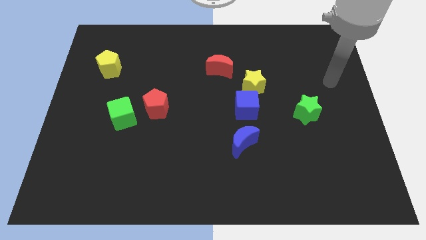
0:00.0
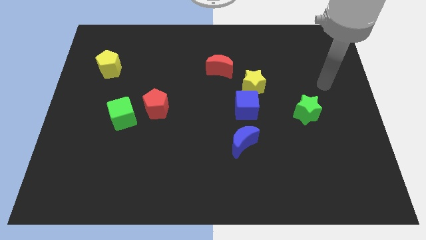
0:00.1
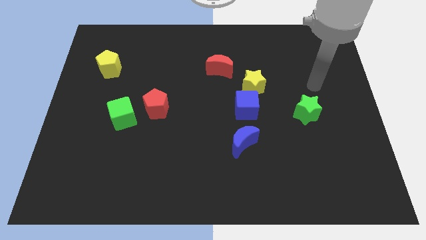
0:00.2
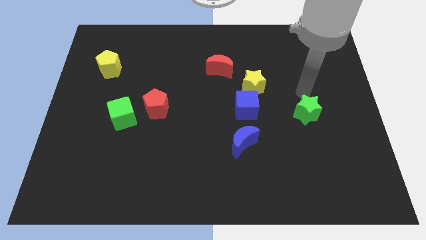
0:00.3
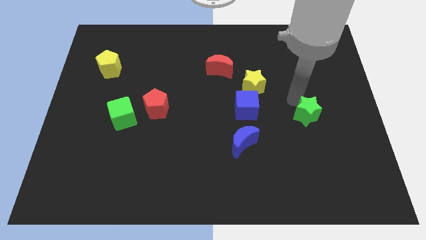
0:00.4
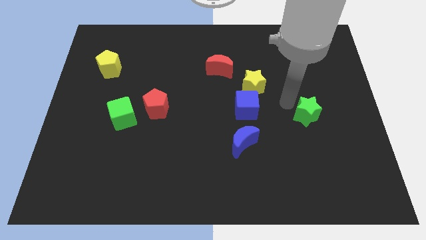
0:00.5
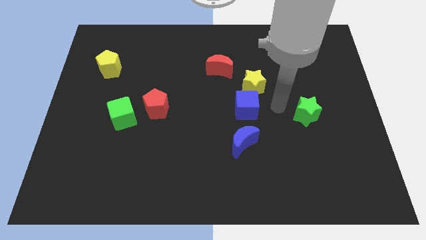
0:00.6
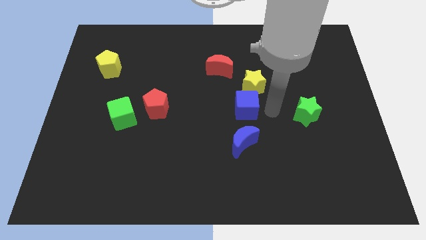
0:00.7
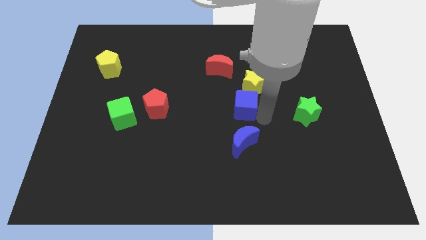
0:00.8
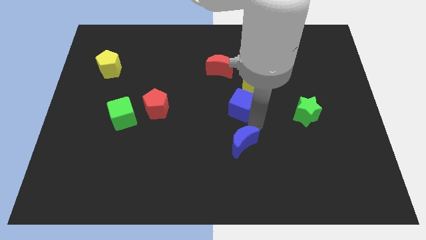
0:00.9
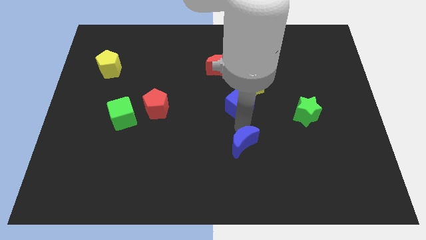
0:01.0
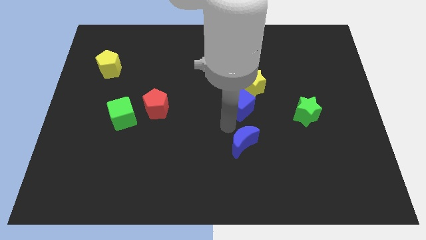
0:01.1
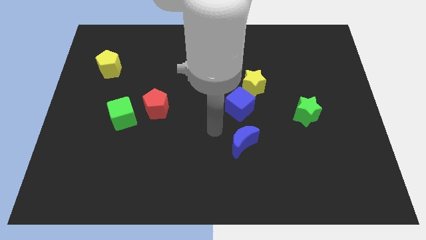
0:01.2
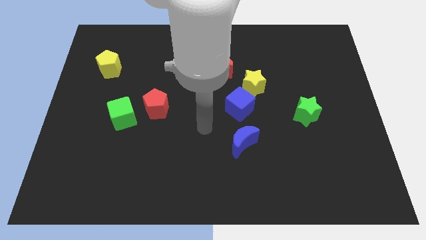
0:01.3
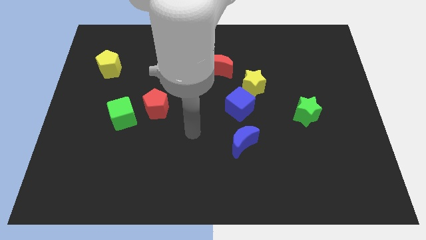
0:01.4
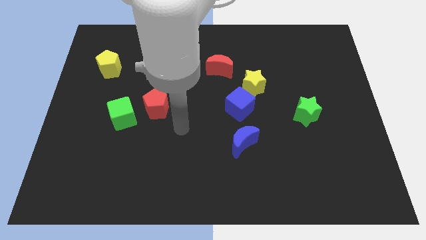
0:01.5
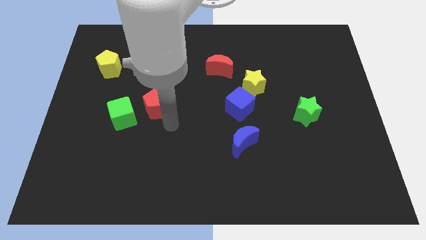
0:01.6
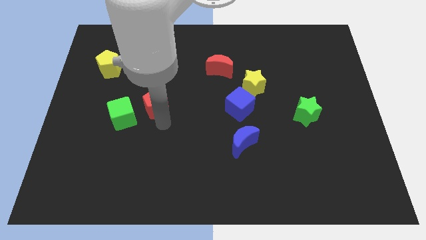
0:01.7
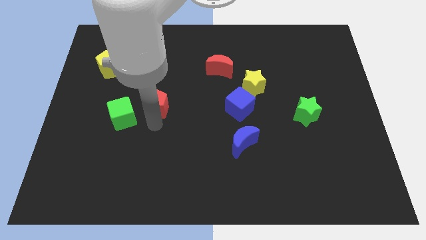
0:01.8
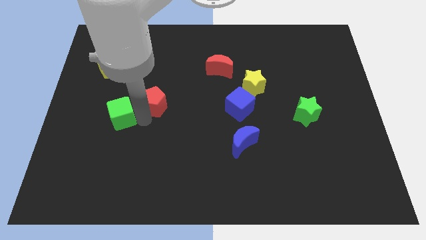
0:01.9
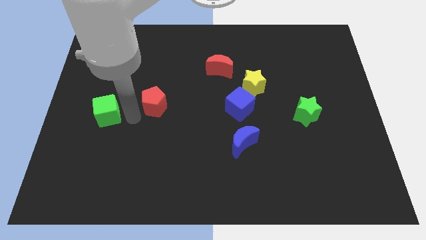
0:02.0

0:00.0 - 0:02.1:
move the red pentagon away from the green cube

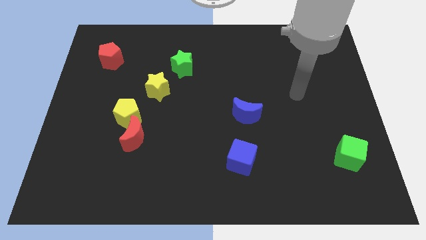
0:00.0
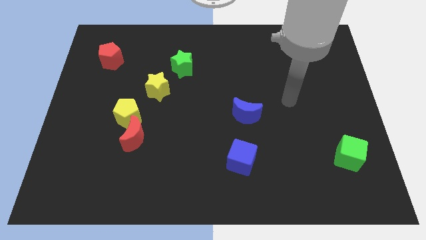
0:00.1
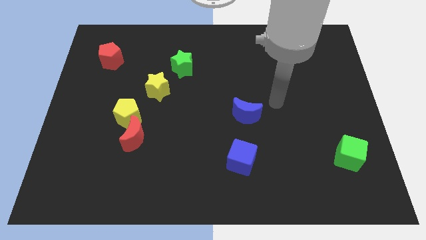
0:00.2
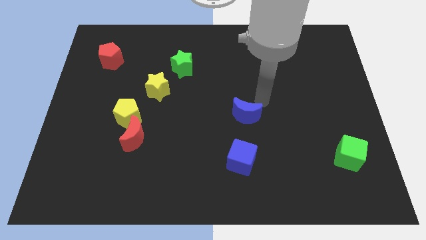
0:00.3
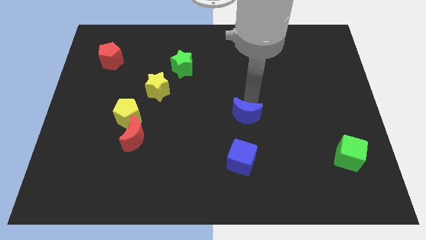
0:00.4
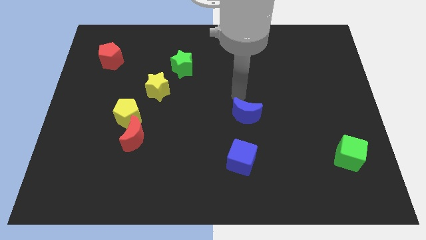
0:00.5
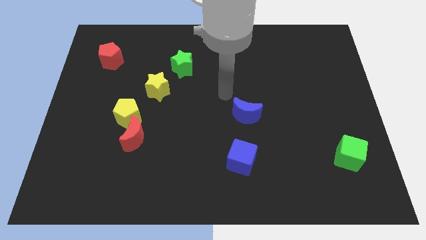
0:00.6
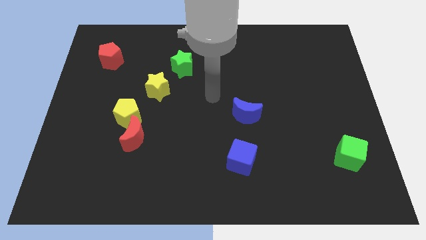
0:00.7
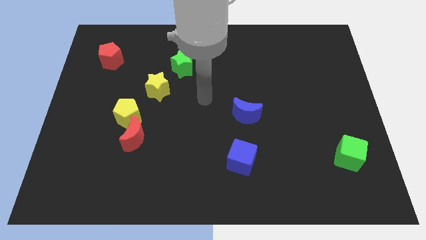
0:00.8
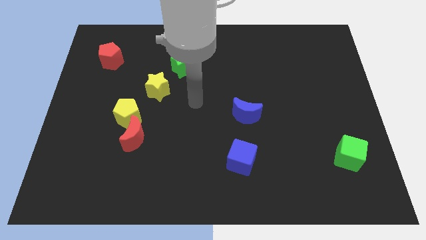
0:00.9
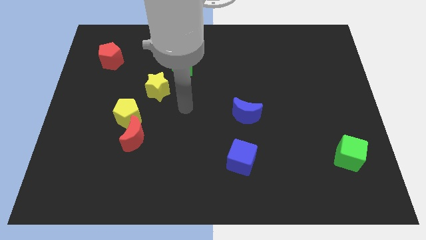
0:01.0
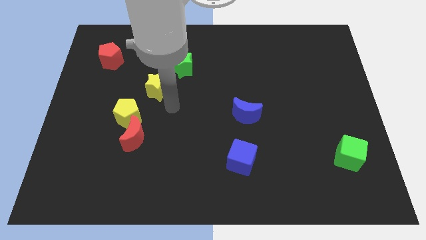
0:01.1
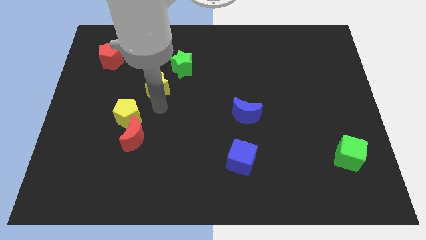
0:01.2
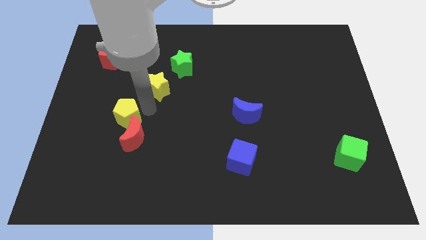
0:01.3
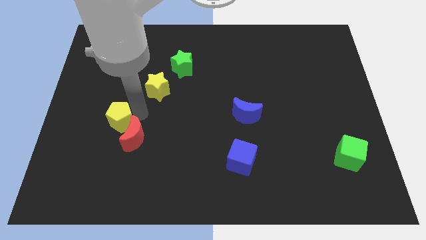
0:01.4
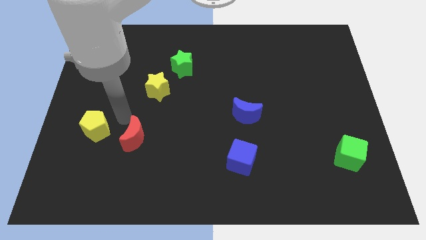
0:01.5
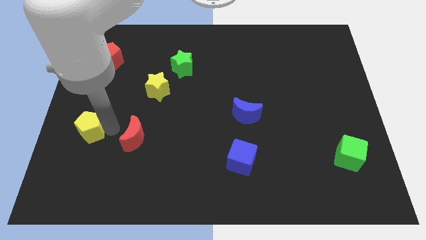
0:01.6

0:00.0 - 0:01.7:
separate the red moon from the yellow pentagon

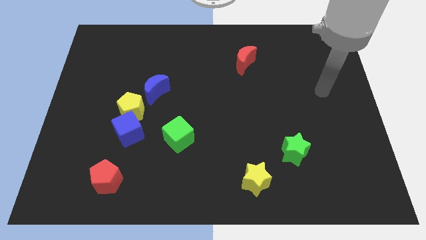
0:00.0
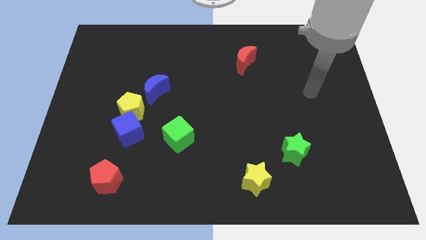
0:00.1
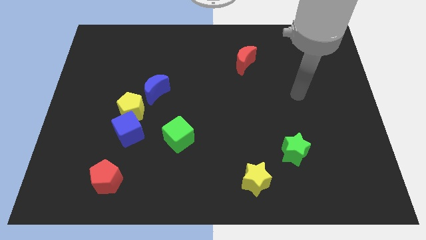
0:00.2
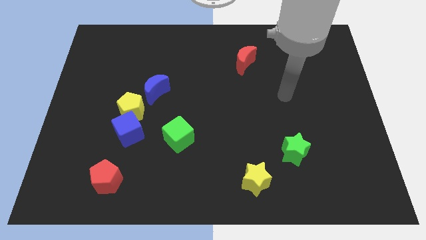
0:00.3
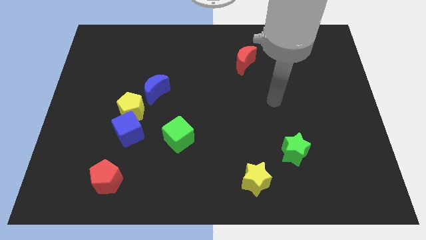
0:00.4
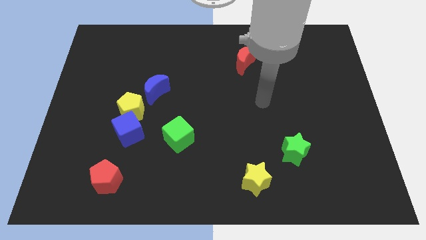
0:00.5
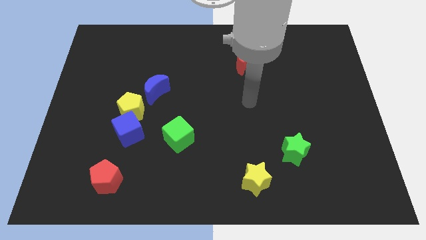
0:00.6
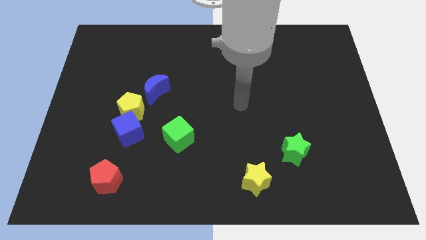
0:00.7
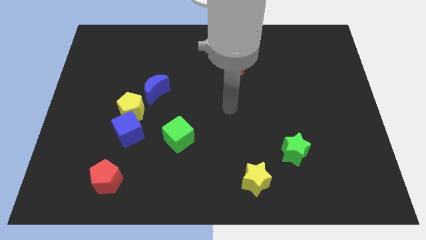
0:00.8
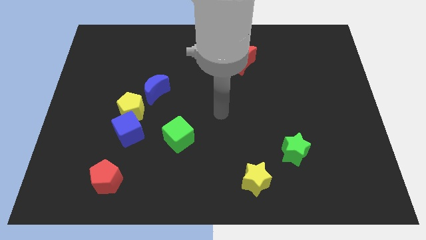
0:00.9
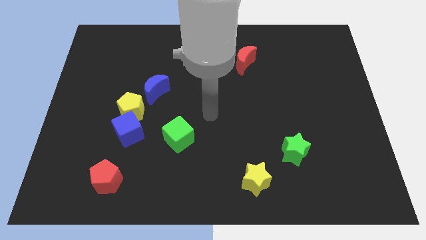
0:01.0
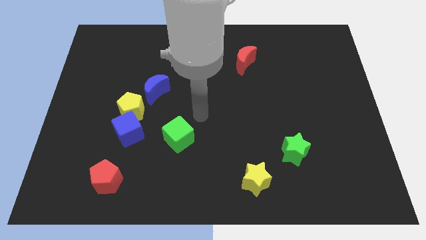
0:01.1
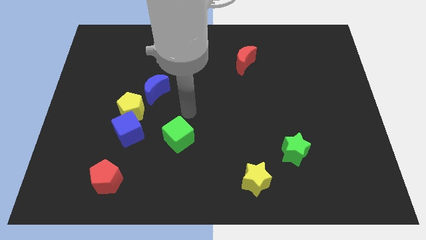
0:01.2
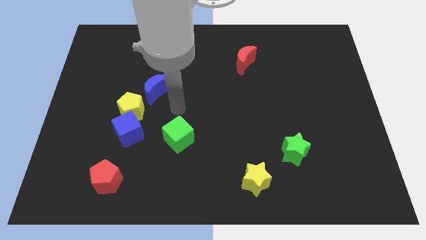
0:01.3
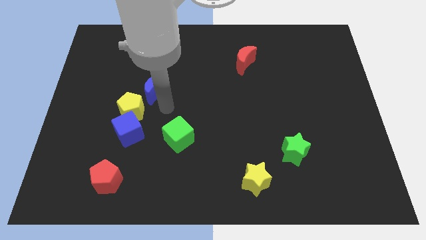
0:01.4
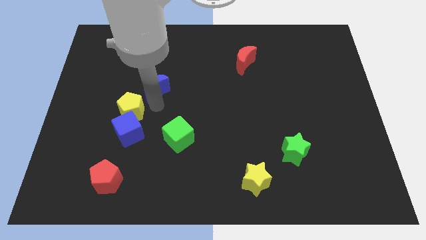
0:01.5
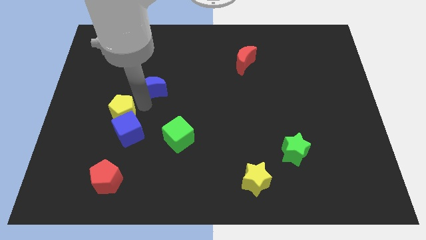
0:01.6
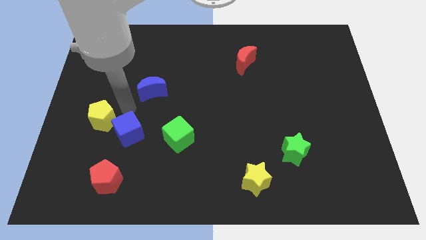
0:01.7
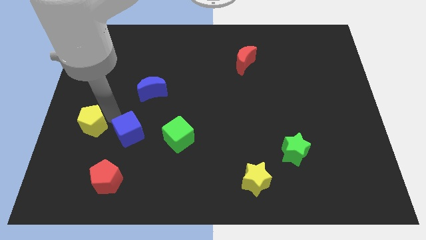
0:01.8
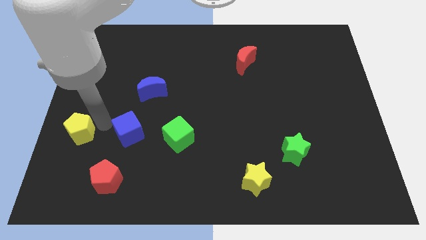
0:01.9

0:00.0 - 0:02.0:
move the blue cube away from the yellow pentagon

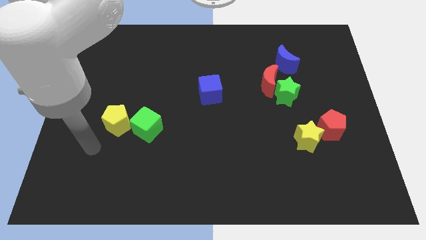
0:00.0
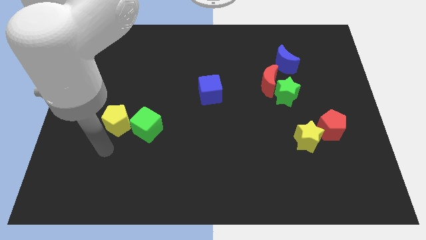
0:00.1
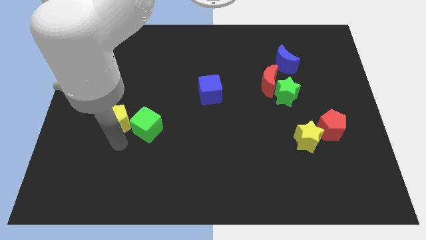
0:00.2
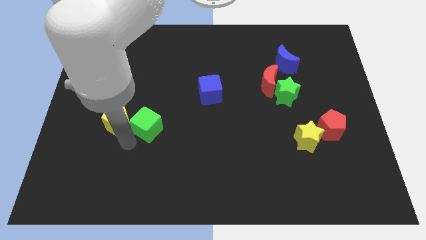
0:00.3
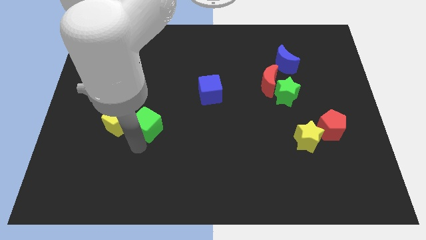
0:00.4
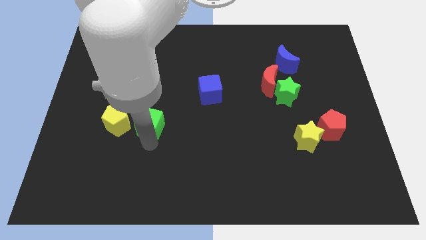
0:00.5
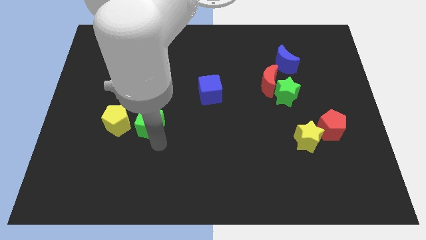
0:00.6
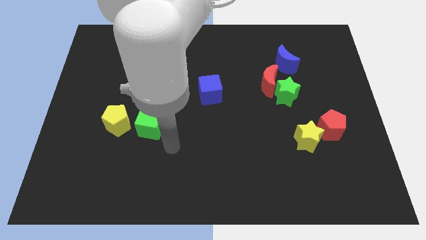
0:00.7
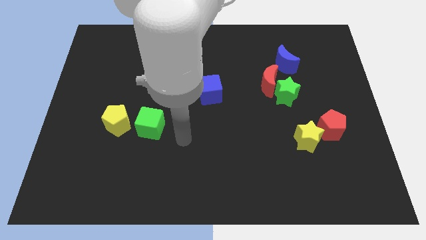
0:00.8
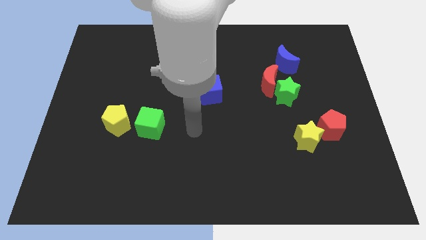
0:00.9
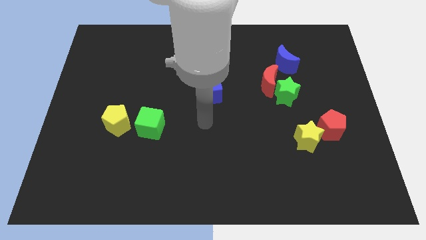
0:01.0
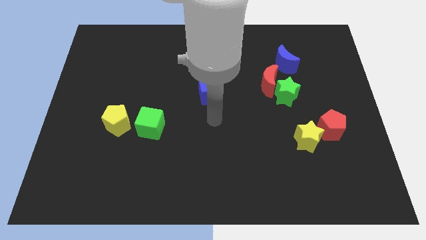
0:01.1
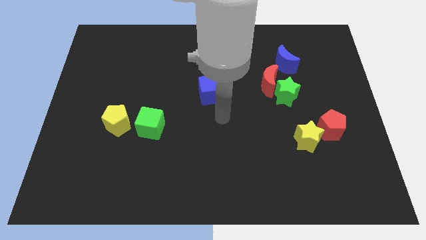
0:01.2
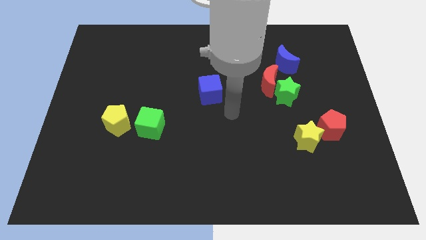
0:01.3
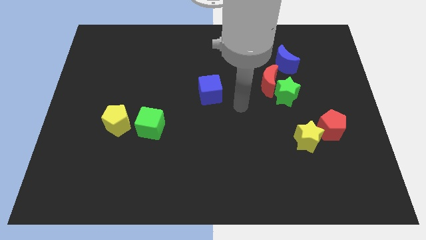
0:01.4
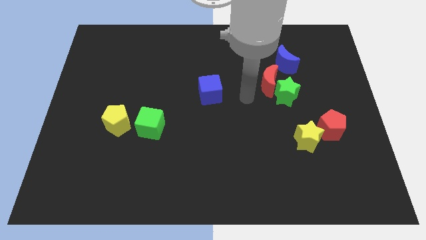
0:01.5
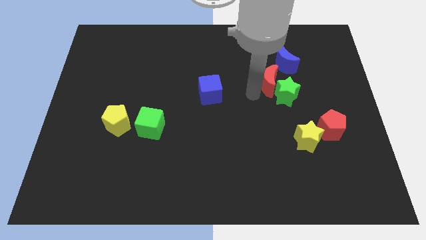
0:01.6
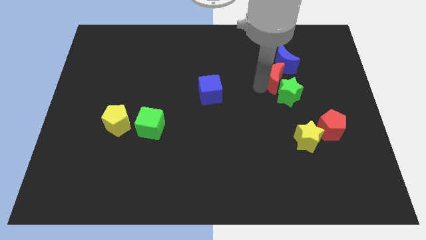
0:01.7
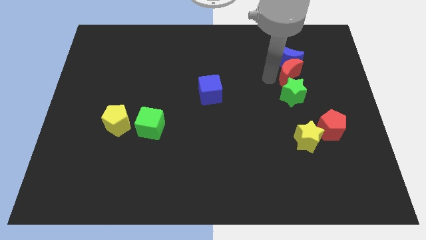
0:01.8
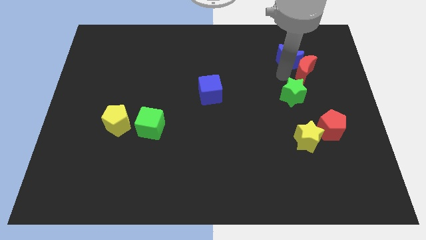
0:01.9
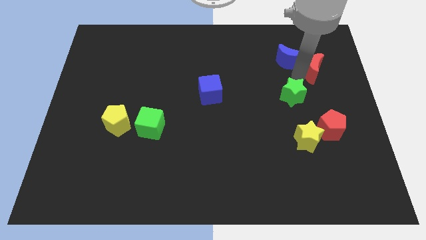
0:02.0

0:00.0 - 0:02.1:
separate the green star from the red moon

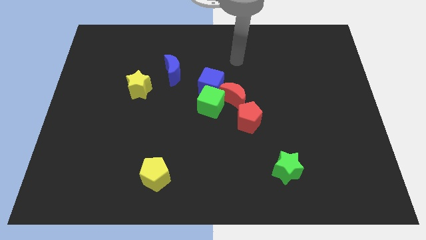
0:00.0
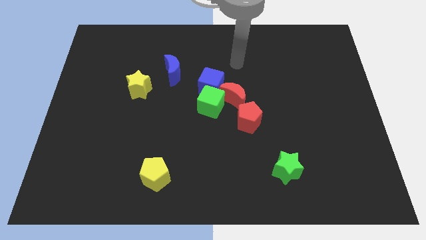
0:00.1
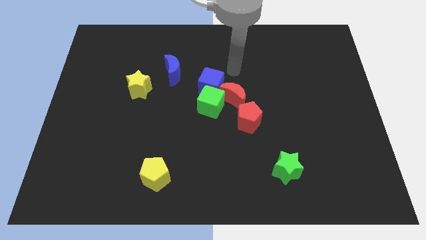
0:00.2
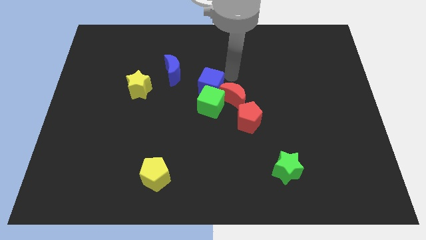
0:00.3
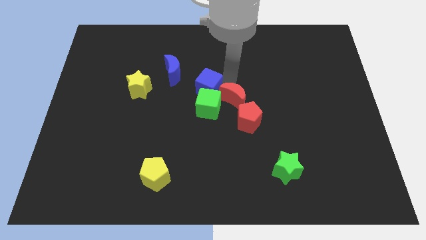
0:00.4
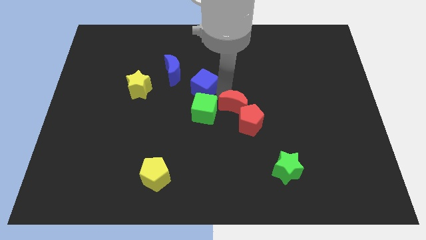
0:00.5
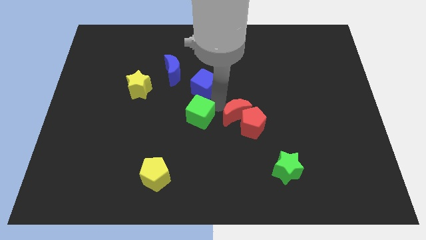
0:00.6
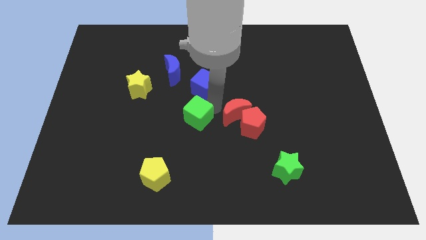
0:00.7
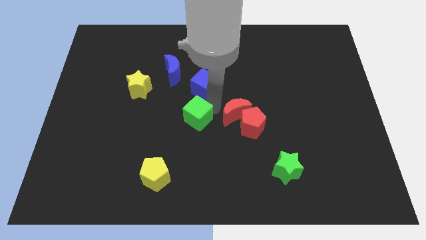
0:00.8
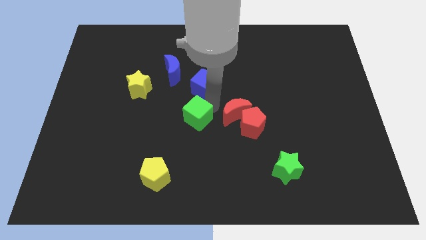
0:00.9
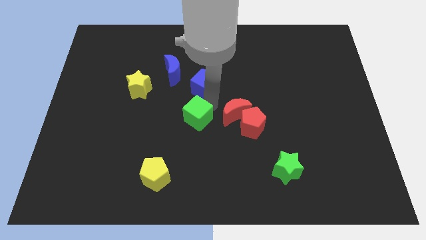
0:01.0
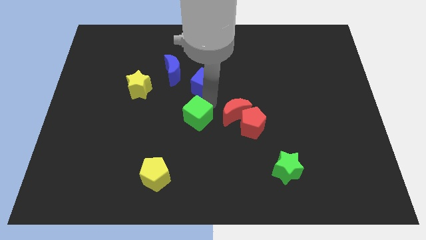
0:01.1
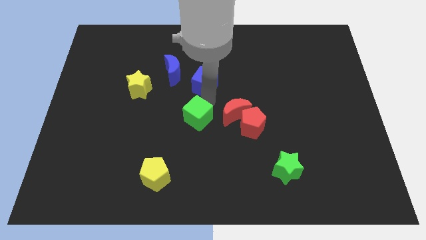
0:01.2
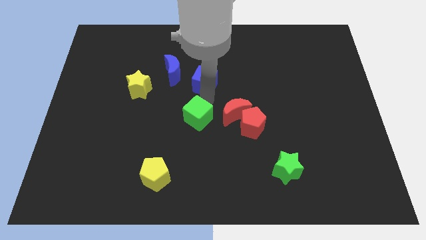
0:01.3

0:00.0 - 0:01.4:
move the blue cube away from the green cube and red moon
